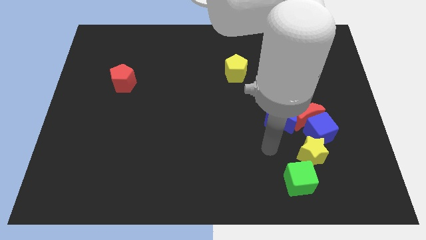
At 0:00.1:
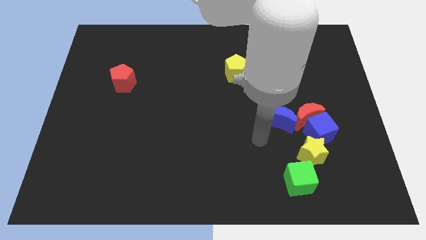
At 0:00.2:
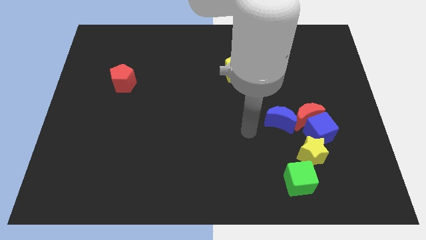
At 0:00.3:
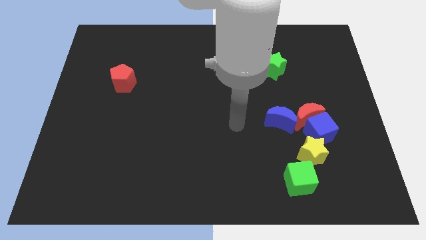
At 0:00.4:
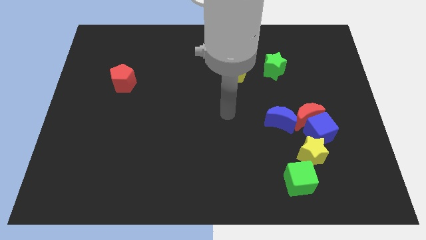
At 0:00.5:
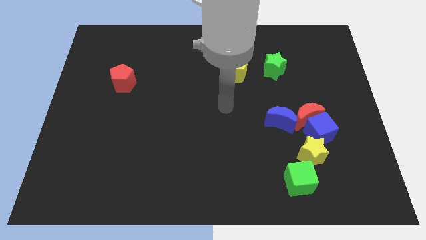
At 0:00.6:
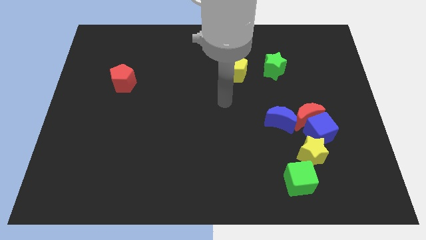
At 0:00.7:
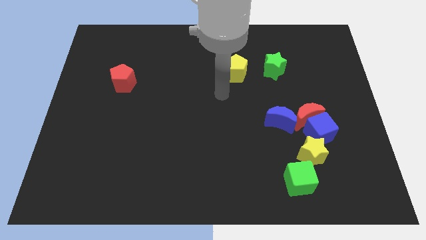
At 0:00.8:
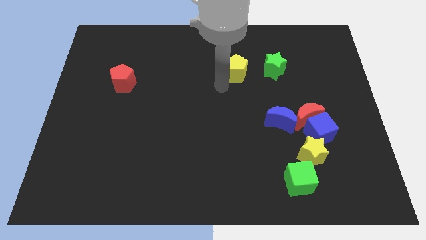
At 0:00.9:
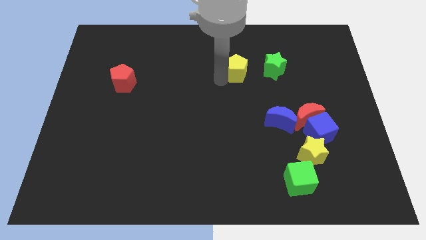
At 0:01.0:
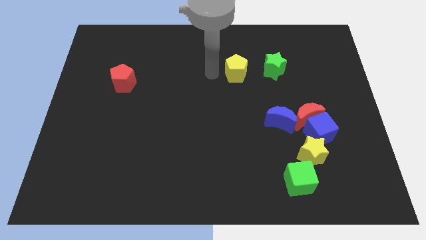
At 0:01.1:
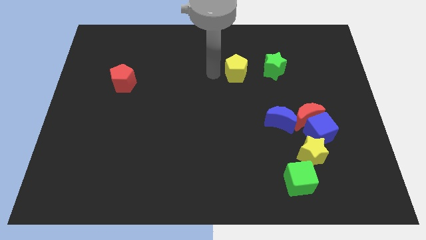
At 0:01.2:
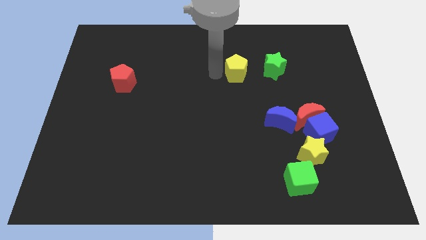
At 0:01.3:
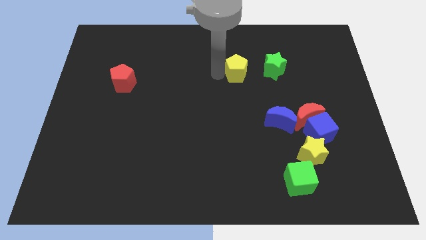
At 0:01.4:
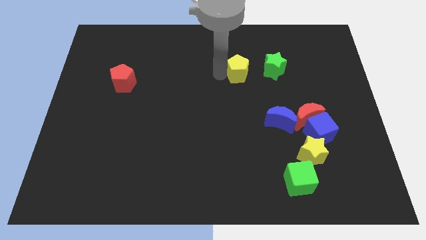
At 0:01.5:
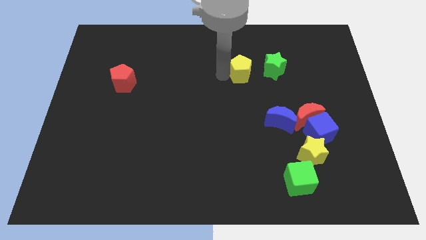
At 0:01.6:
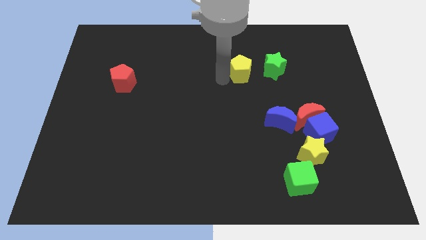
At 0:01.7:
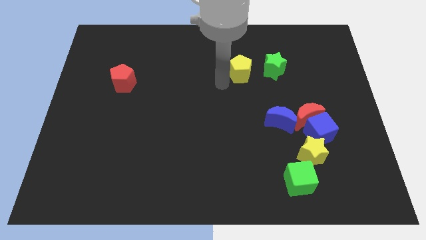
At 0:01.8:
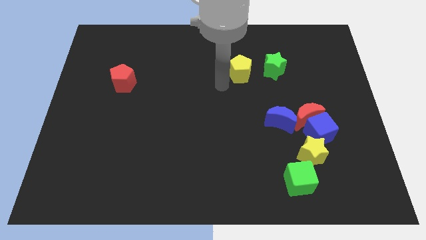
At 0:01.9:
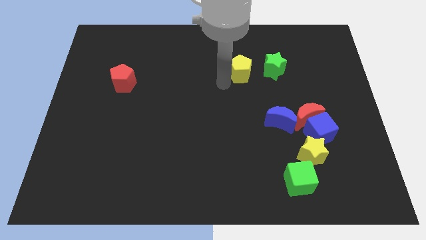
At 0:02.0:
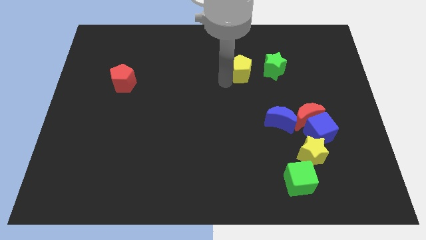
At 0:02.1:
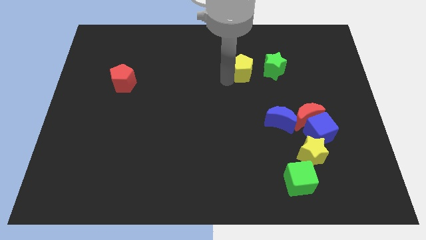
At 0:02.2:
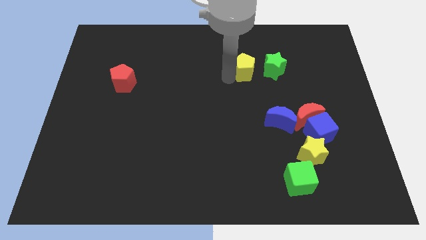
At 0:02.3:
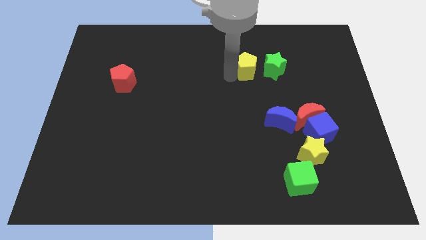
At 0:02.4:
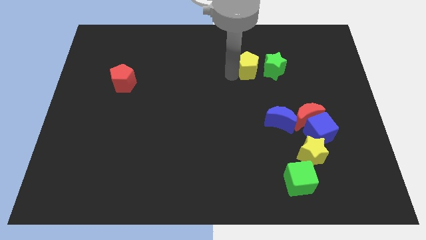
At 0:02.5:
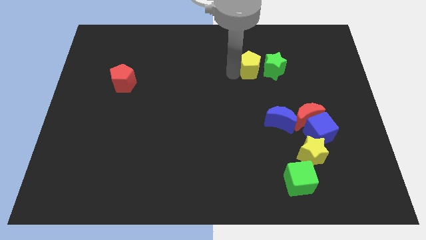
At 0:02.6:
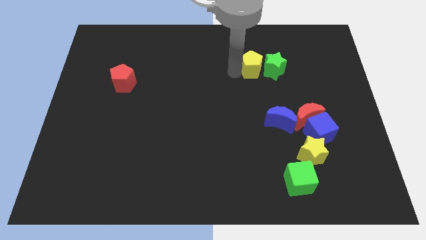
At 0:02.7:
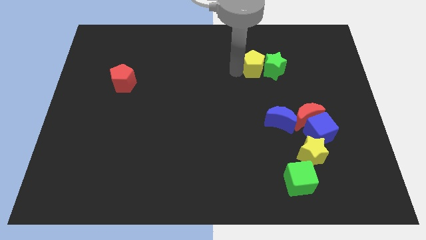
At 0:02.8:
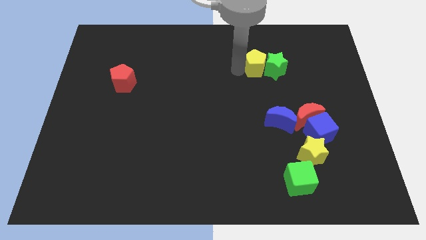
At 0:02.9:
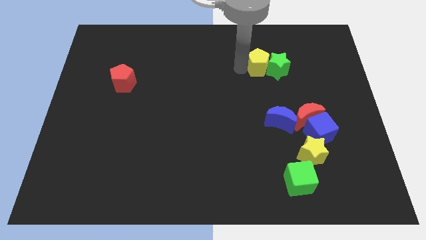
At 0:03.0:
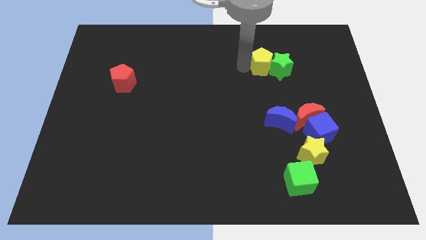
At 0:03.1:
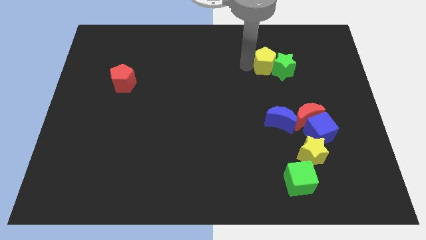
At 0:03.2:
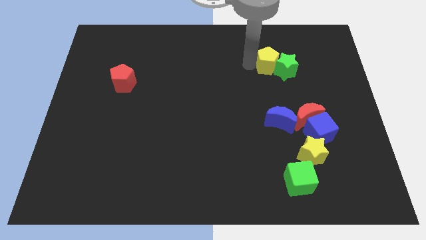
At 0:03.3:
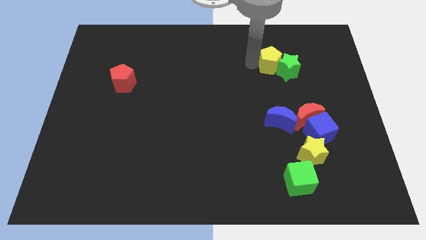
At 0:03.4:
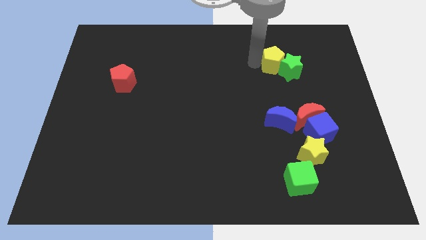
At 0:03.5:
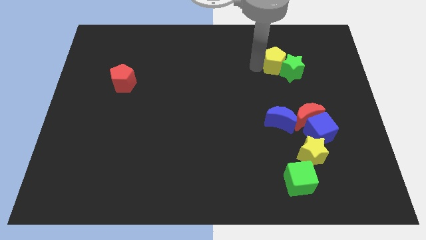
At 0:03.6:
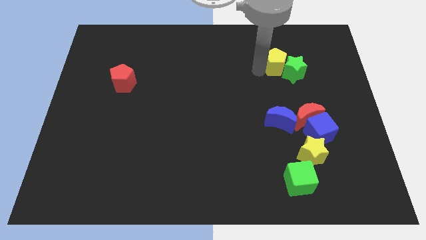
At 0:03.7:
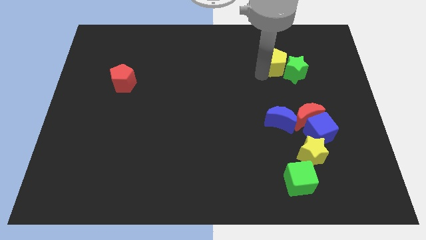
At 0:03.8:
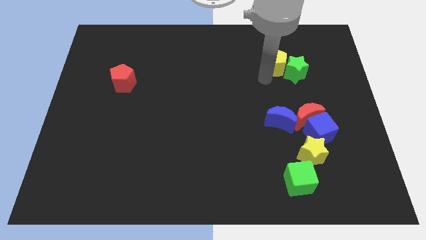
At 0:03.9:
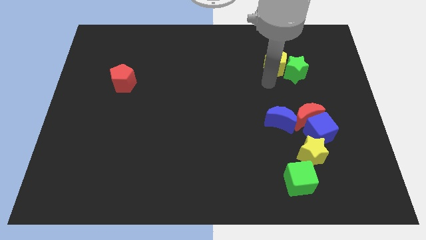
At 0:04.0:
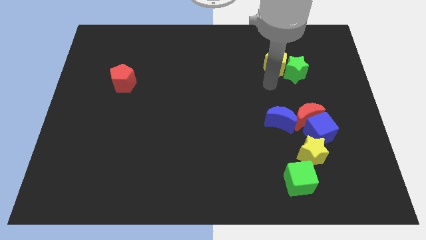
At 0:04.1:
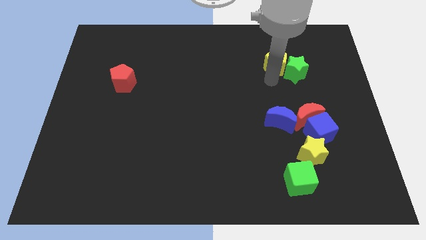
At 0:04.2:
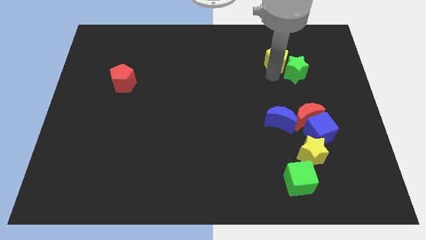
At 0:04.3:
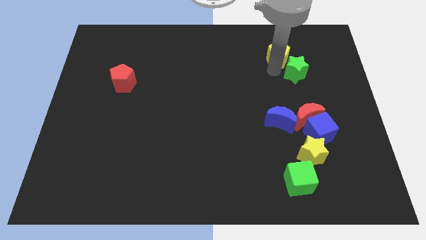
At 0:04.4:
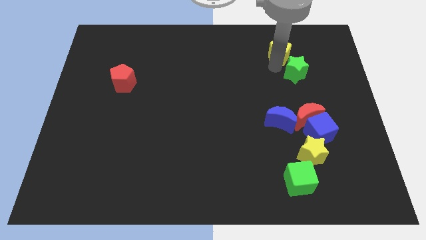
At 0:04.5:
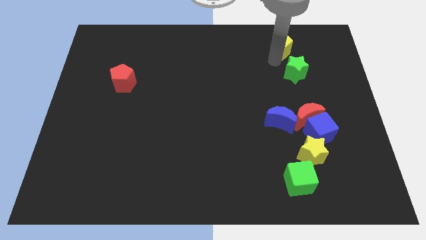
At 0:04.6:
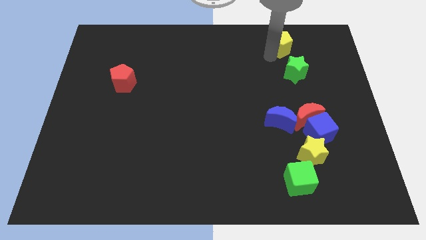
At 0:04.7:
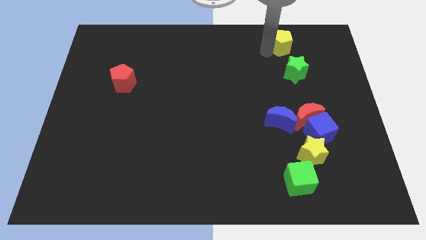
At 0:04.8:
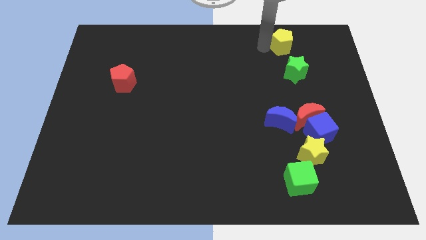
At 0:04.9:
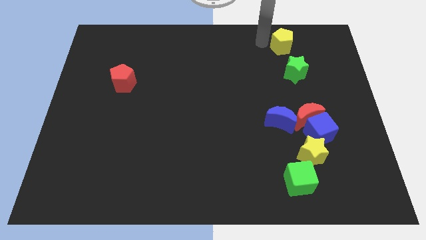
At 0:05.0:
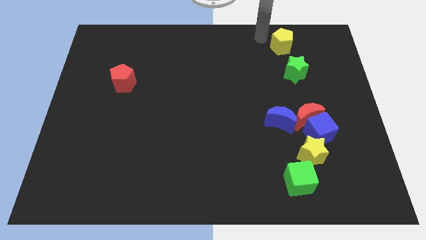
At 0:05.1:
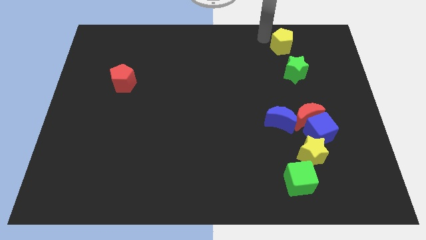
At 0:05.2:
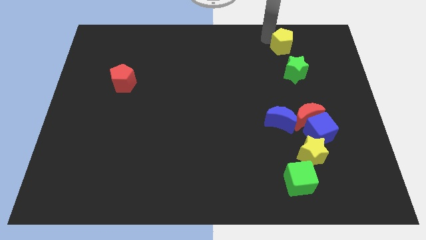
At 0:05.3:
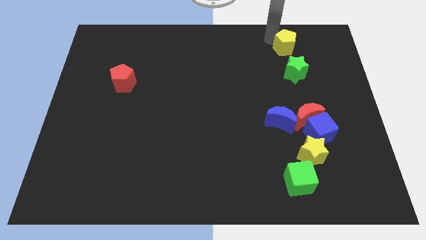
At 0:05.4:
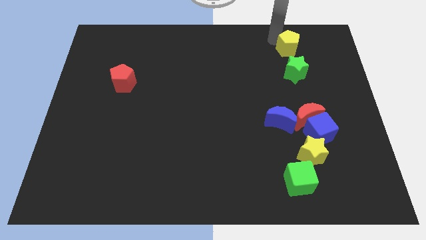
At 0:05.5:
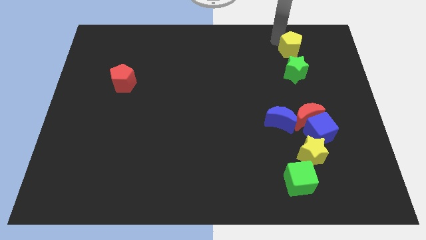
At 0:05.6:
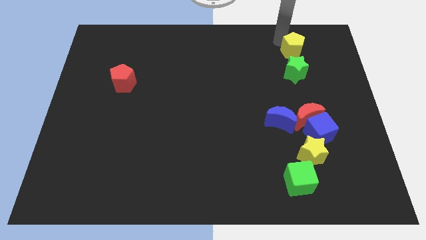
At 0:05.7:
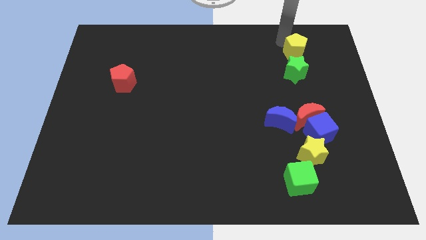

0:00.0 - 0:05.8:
put the yellow pentagon to the top right of the green star

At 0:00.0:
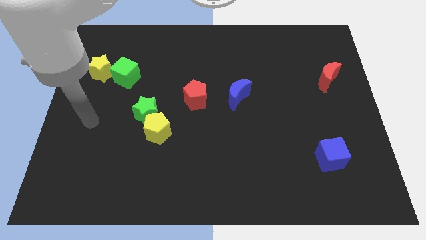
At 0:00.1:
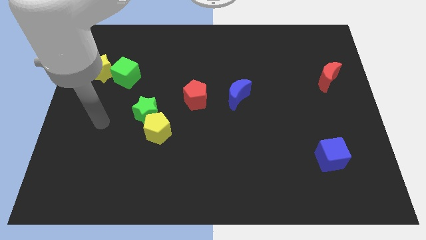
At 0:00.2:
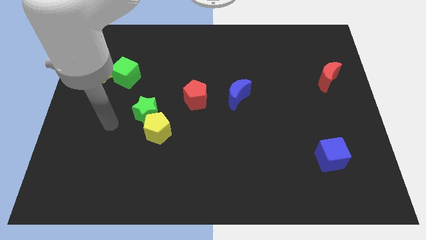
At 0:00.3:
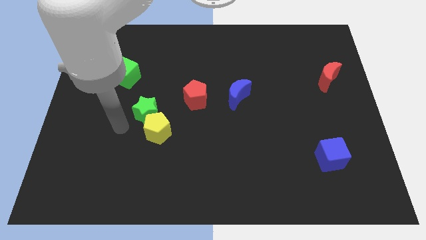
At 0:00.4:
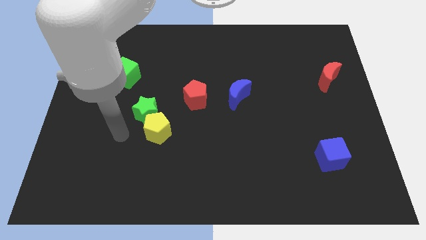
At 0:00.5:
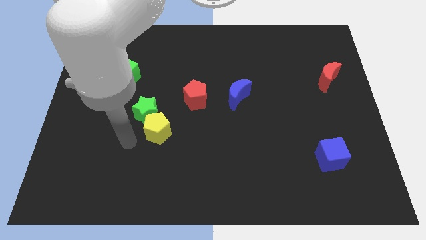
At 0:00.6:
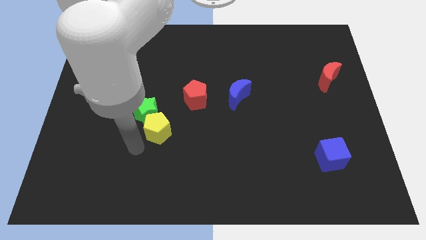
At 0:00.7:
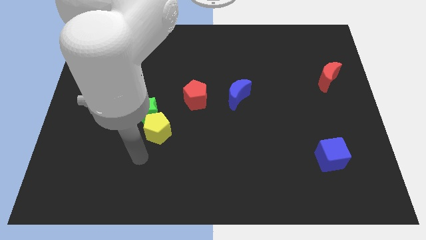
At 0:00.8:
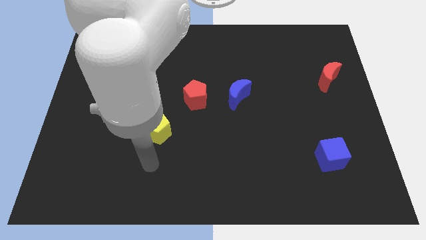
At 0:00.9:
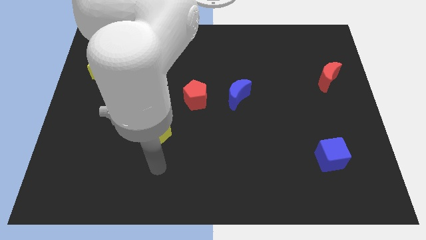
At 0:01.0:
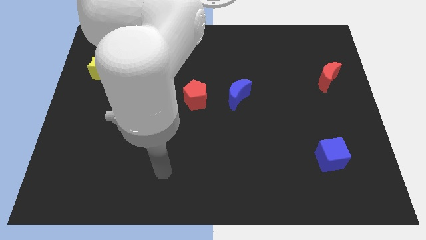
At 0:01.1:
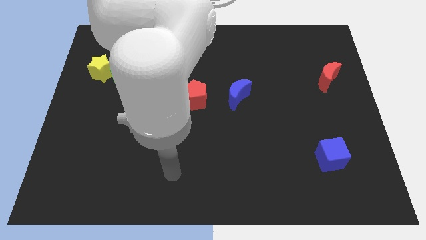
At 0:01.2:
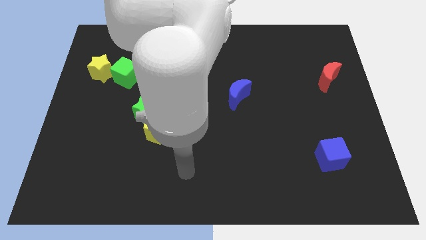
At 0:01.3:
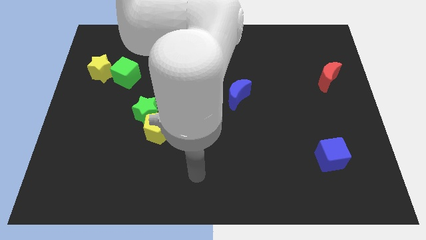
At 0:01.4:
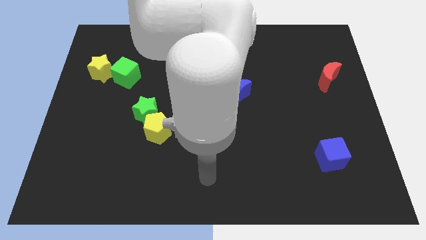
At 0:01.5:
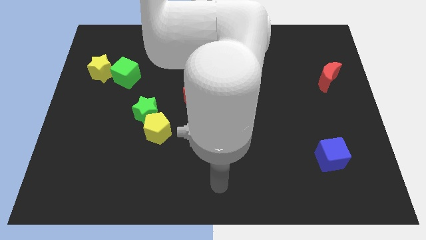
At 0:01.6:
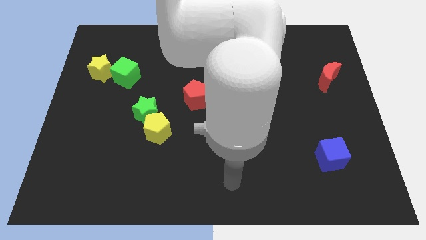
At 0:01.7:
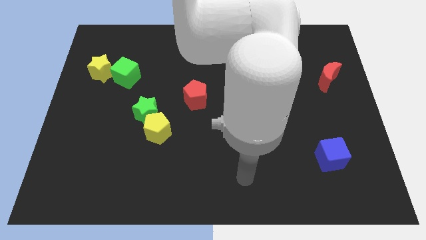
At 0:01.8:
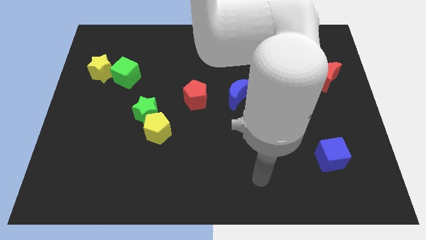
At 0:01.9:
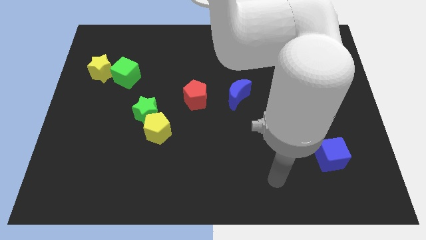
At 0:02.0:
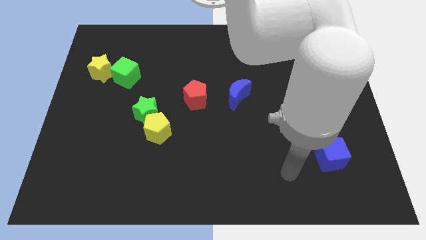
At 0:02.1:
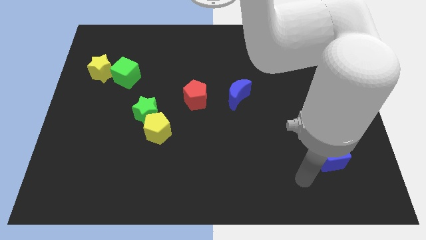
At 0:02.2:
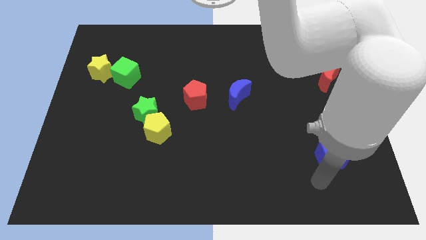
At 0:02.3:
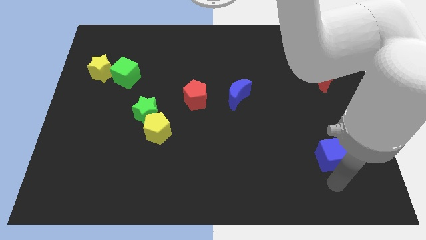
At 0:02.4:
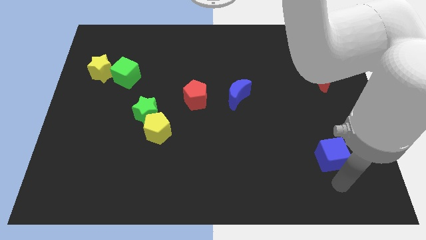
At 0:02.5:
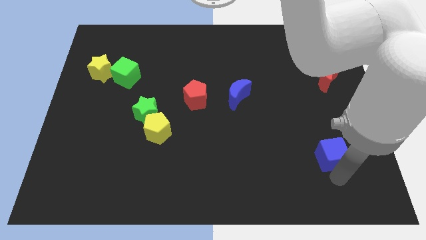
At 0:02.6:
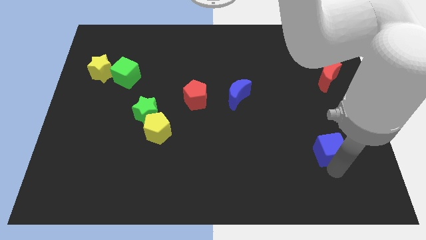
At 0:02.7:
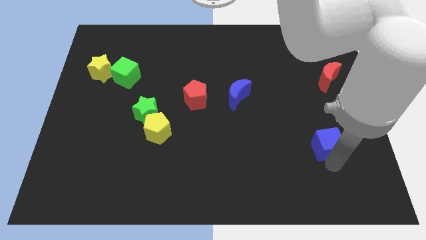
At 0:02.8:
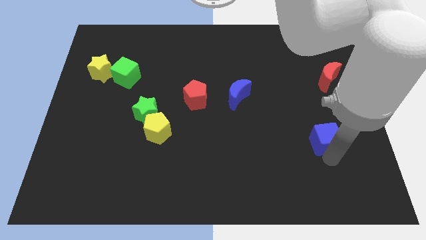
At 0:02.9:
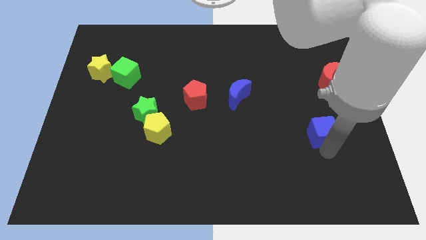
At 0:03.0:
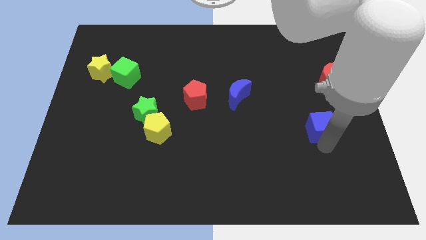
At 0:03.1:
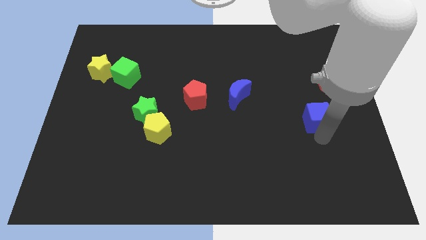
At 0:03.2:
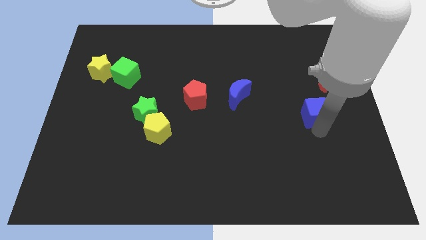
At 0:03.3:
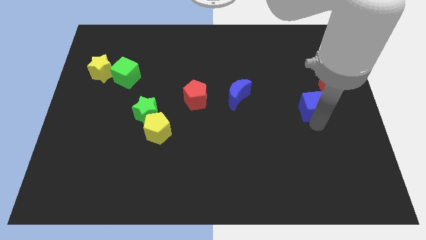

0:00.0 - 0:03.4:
move the blue cube diagonally down and to the left of the red moon
